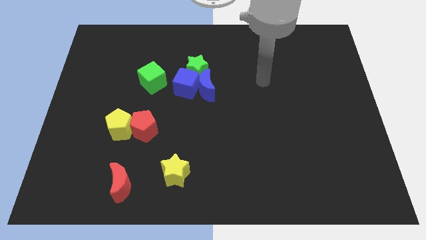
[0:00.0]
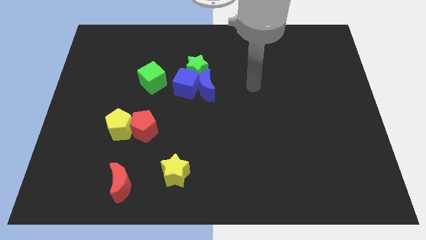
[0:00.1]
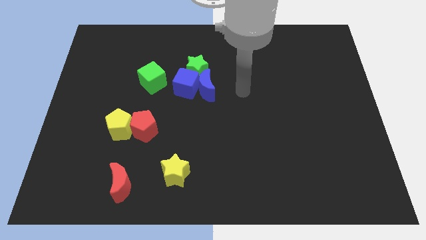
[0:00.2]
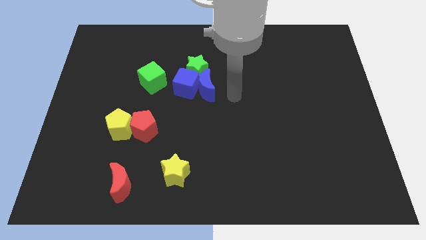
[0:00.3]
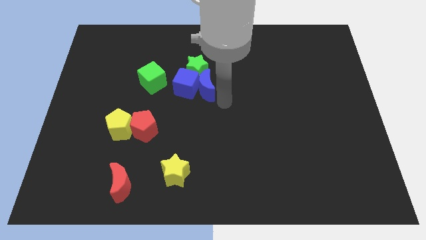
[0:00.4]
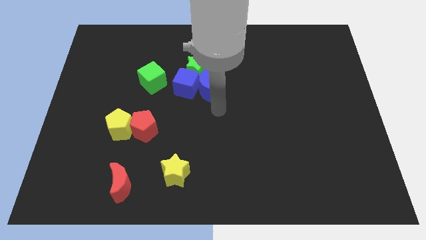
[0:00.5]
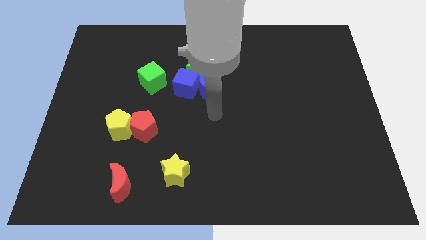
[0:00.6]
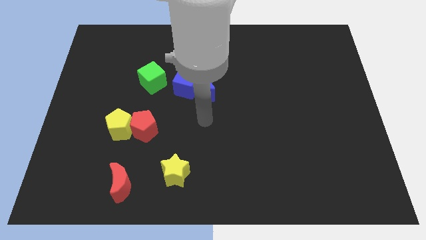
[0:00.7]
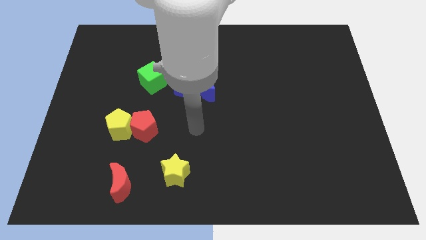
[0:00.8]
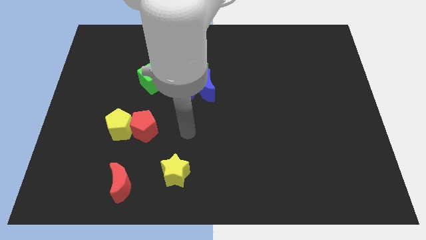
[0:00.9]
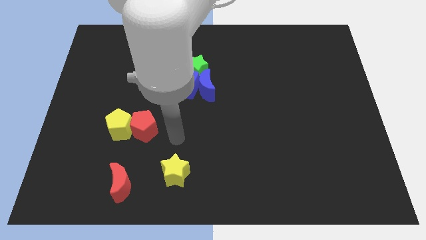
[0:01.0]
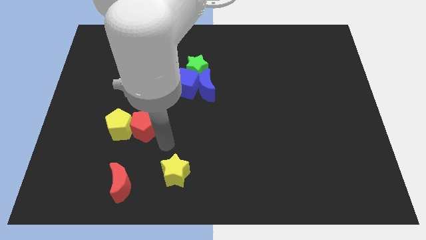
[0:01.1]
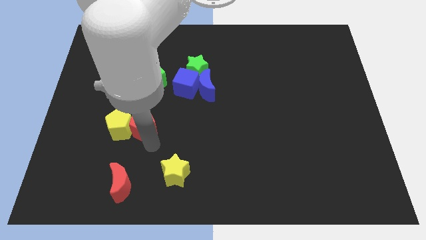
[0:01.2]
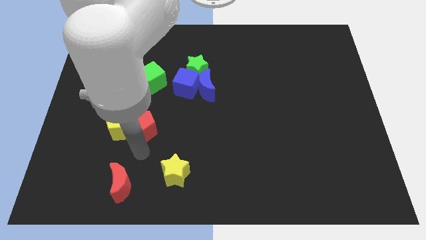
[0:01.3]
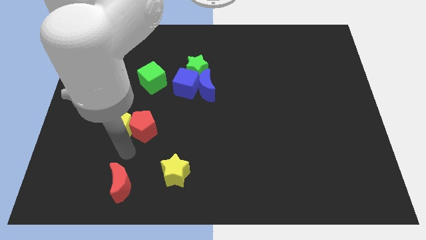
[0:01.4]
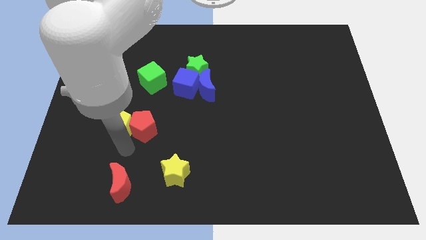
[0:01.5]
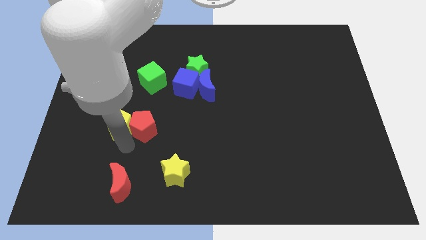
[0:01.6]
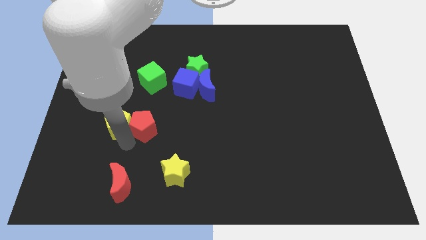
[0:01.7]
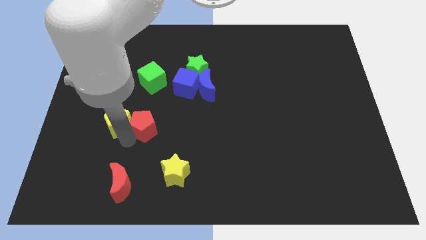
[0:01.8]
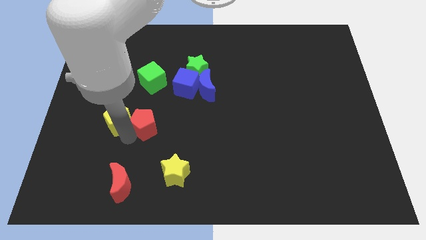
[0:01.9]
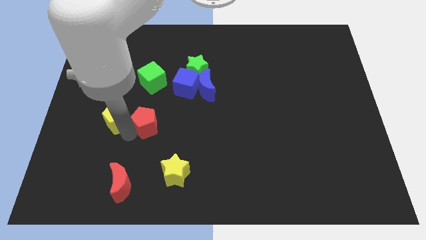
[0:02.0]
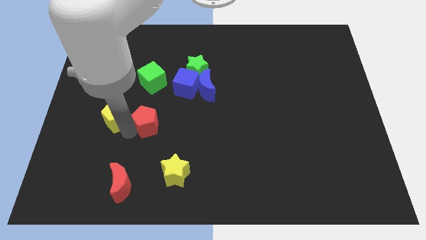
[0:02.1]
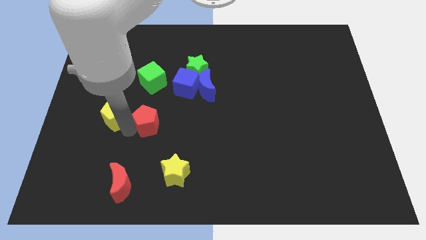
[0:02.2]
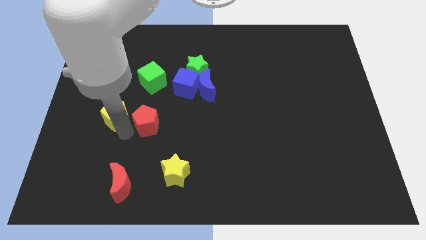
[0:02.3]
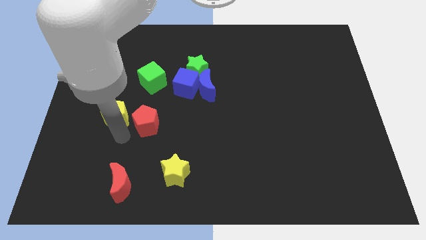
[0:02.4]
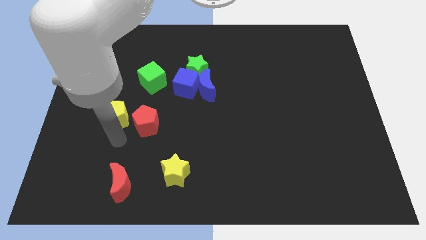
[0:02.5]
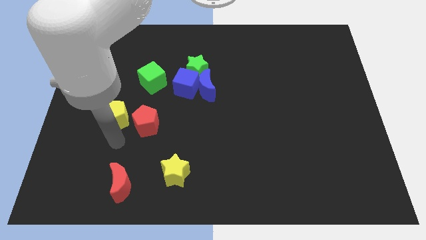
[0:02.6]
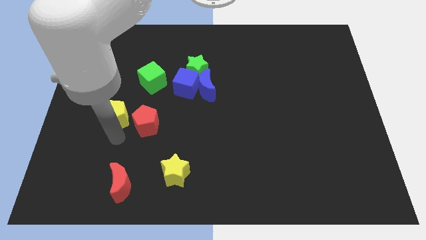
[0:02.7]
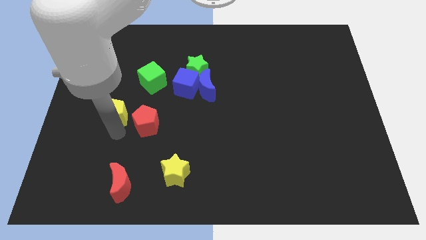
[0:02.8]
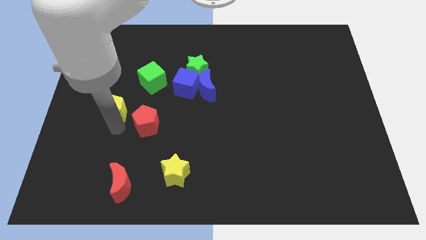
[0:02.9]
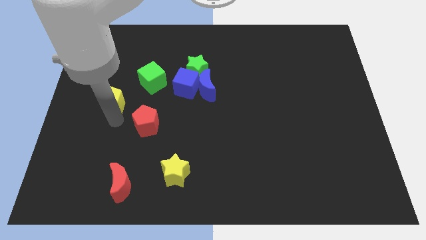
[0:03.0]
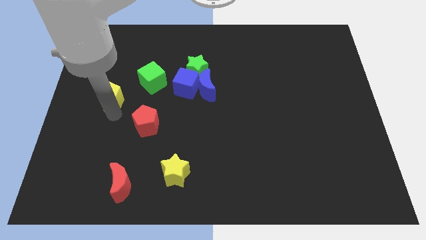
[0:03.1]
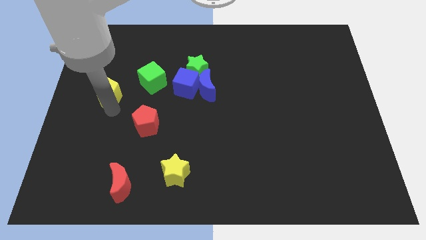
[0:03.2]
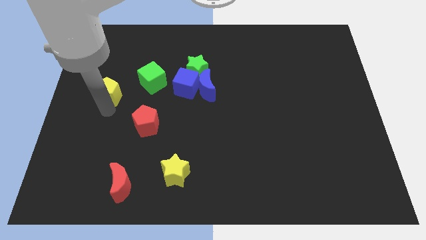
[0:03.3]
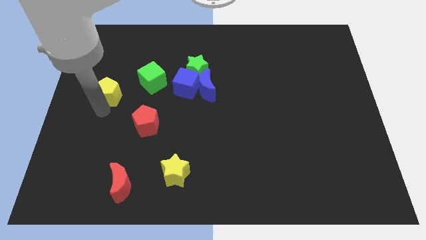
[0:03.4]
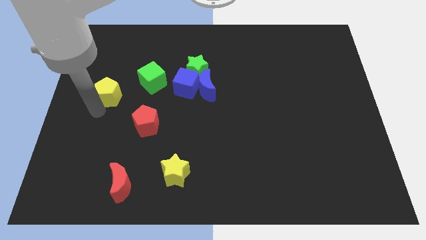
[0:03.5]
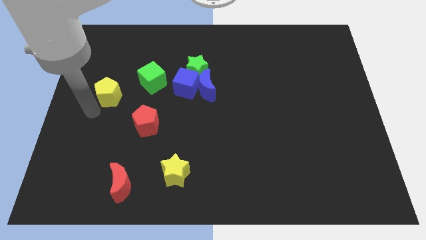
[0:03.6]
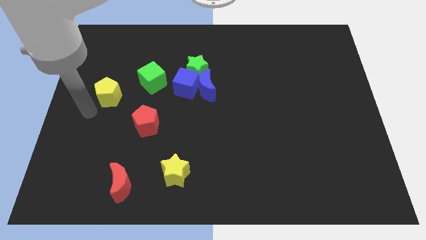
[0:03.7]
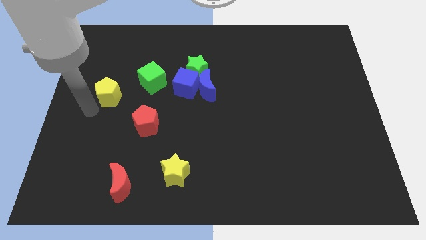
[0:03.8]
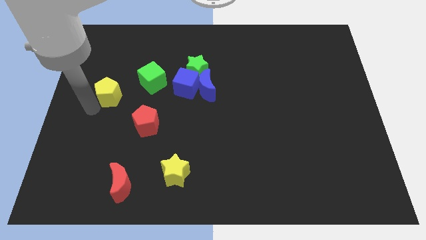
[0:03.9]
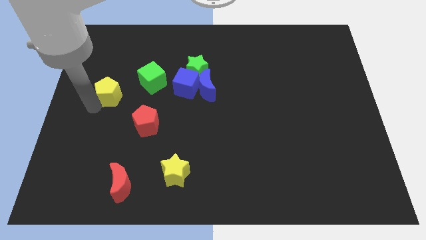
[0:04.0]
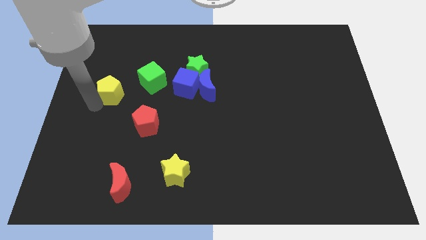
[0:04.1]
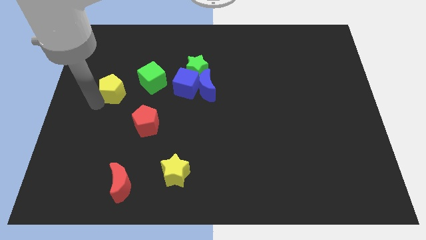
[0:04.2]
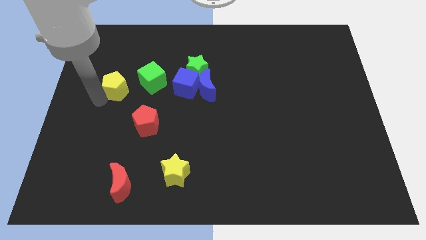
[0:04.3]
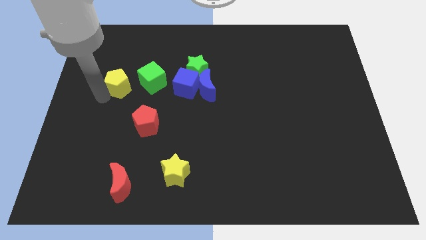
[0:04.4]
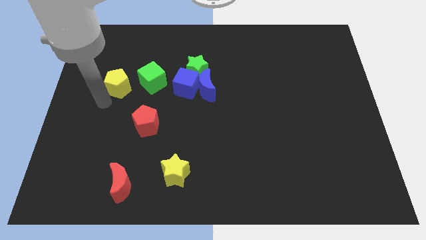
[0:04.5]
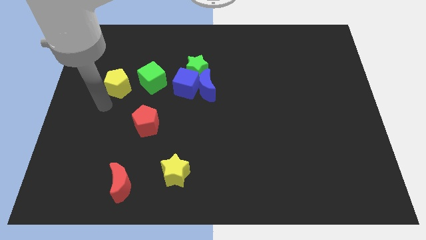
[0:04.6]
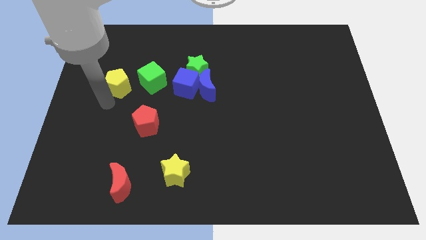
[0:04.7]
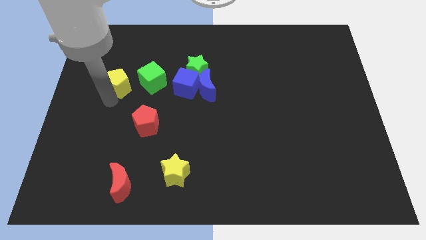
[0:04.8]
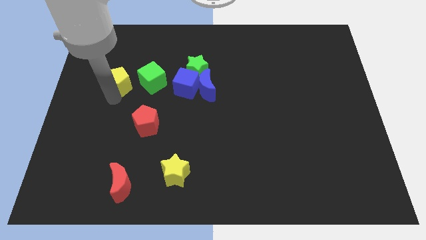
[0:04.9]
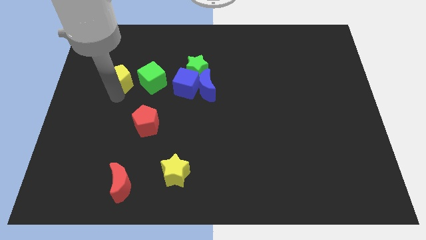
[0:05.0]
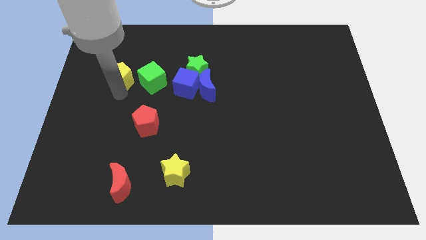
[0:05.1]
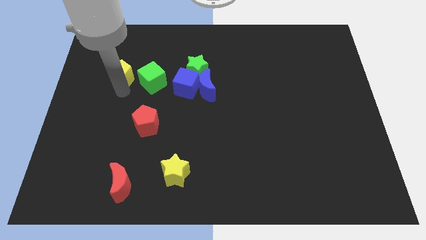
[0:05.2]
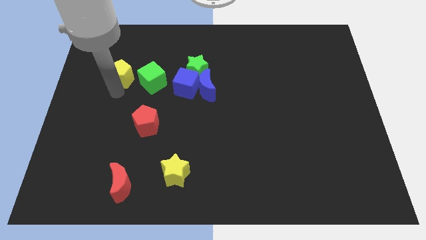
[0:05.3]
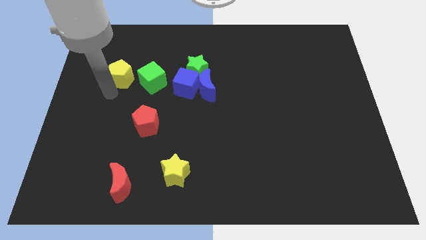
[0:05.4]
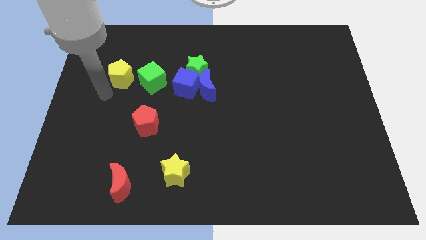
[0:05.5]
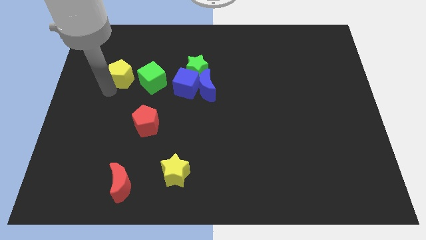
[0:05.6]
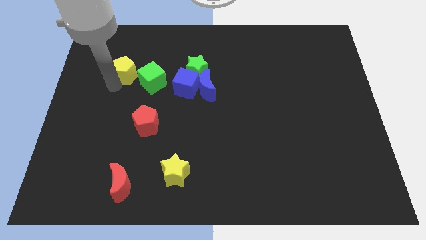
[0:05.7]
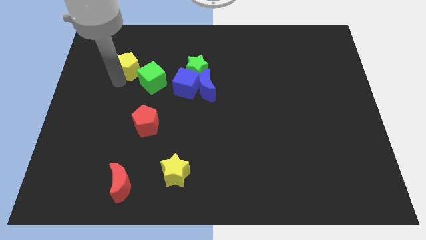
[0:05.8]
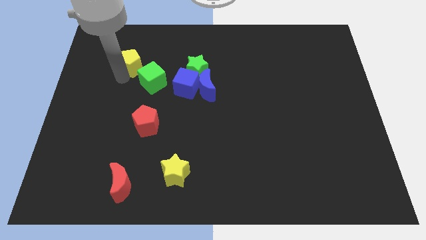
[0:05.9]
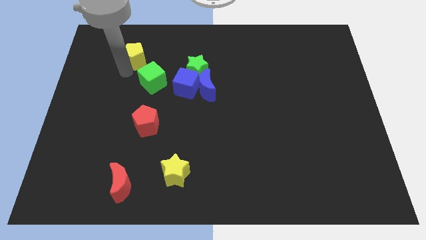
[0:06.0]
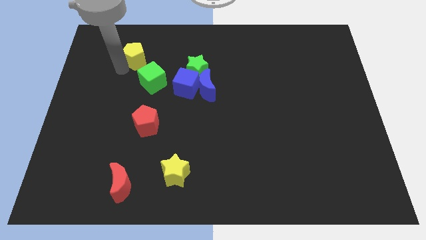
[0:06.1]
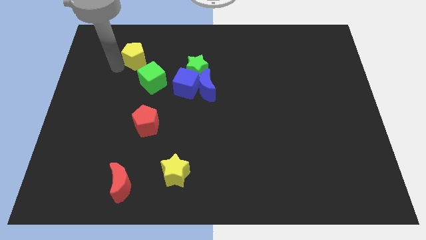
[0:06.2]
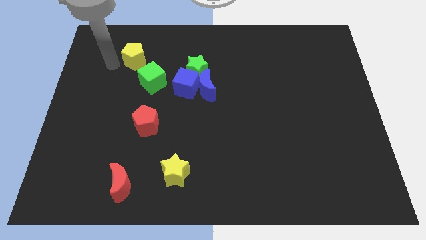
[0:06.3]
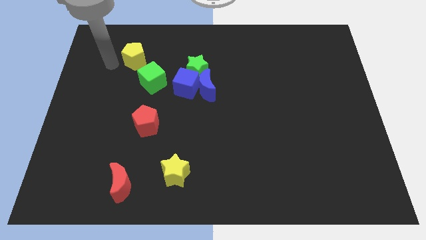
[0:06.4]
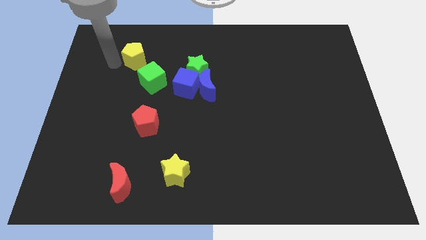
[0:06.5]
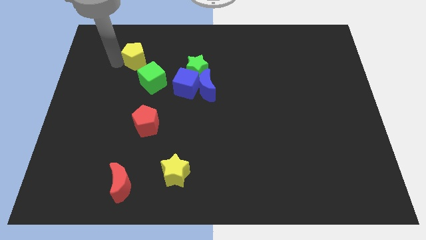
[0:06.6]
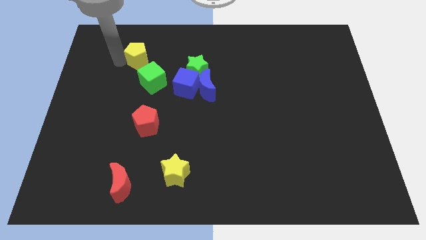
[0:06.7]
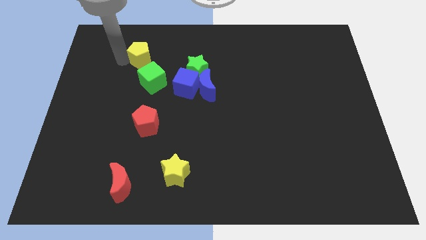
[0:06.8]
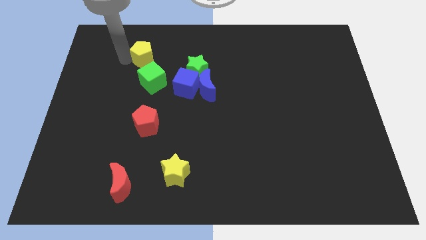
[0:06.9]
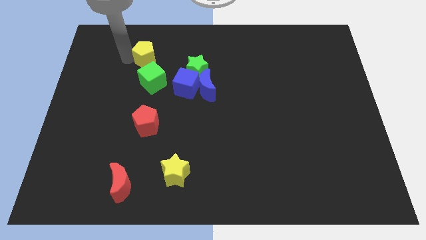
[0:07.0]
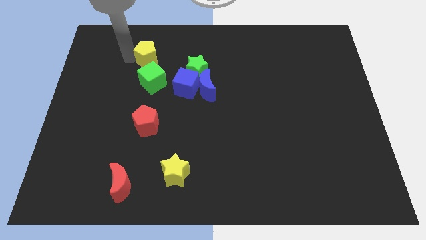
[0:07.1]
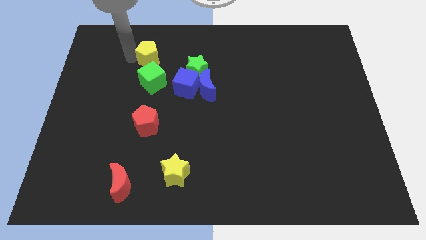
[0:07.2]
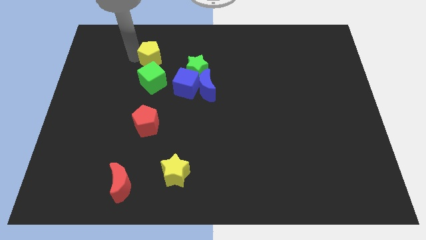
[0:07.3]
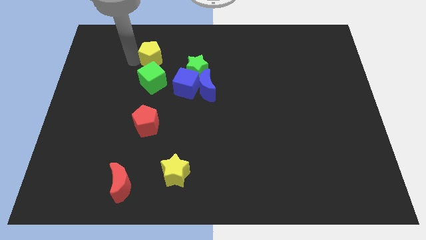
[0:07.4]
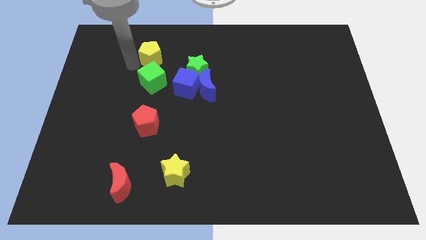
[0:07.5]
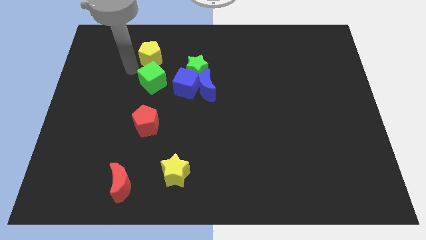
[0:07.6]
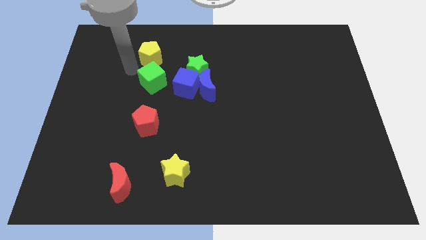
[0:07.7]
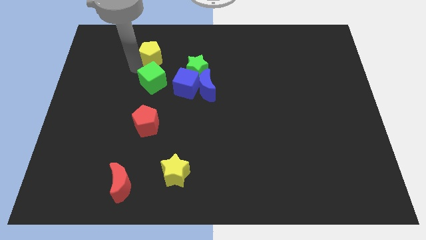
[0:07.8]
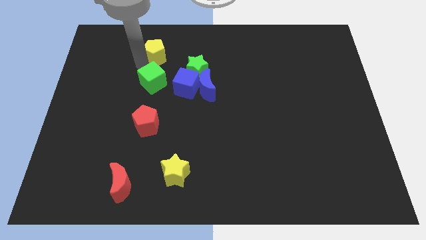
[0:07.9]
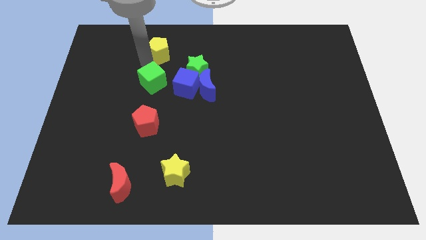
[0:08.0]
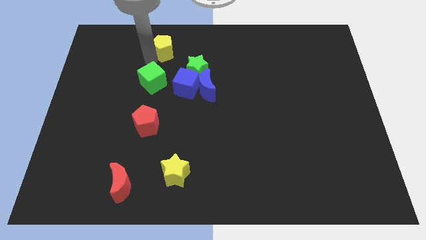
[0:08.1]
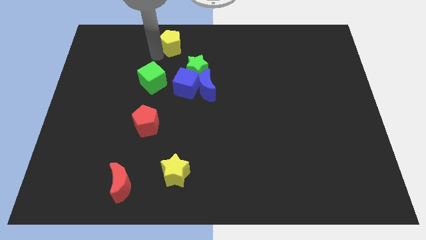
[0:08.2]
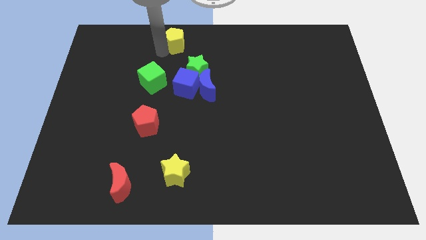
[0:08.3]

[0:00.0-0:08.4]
slide the yellow pentagon to the towards your base
